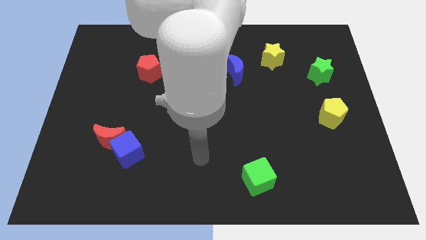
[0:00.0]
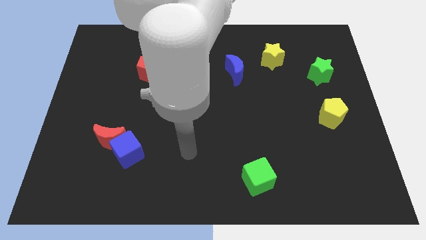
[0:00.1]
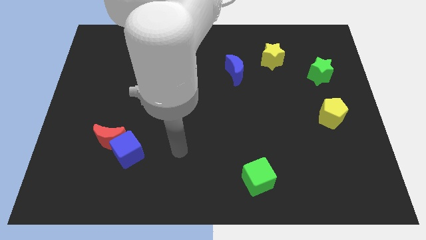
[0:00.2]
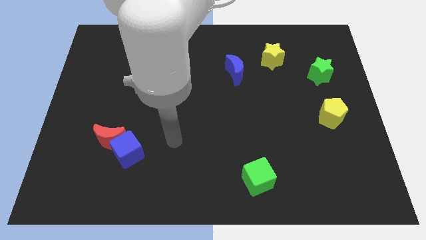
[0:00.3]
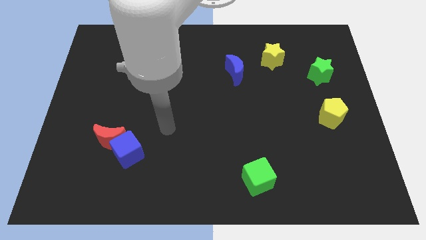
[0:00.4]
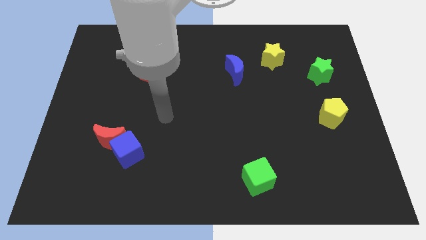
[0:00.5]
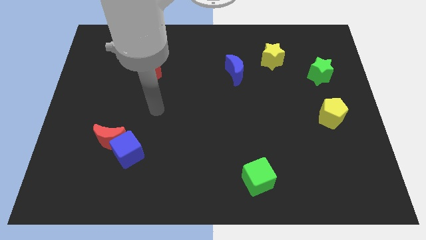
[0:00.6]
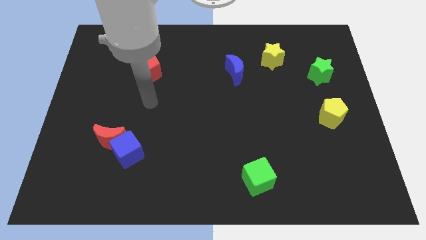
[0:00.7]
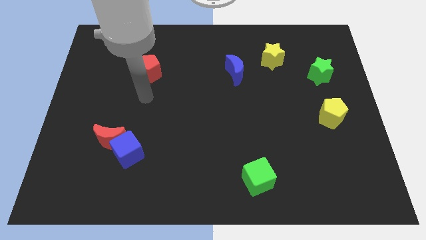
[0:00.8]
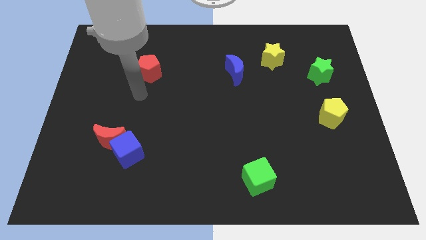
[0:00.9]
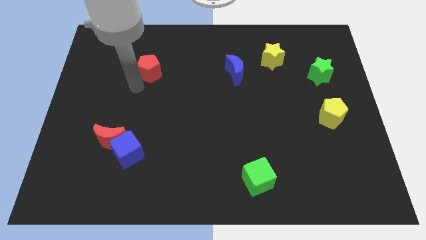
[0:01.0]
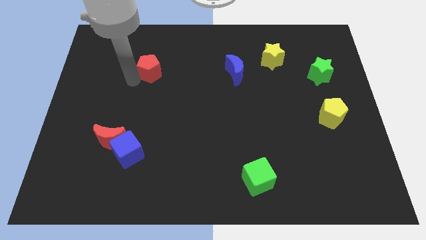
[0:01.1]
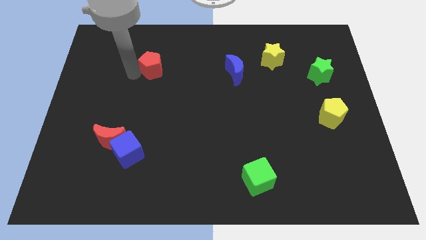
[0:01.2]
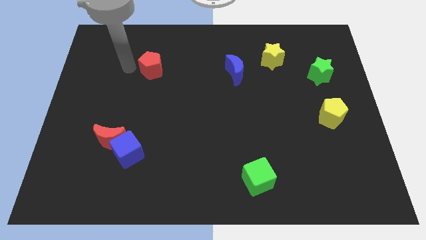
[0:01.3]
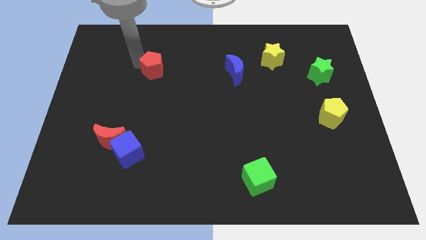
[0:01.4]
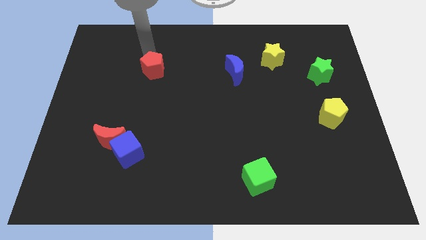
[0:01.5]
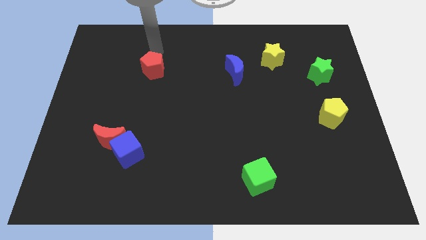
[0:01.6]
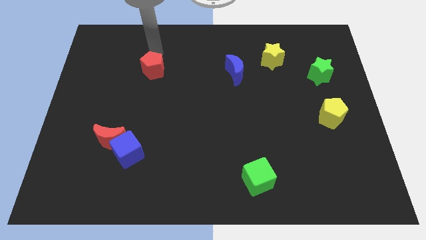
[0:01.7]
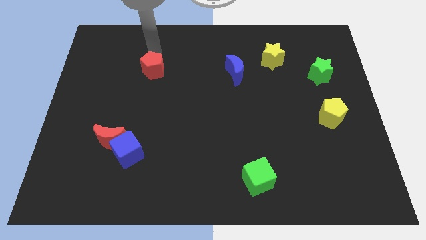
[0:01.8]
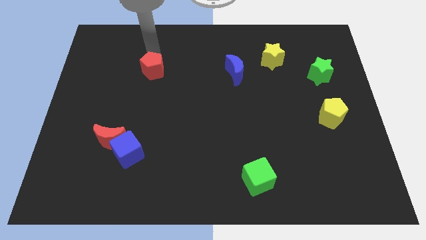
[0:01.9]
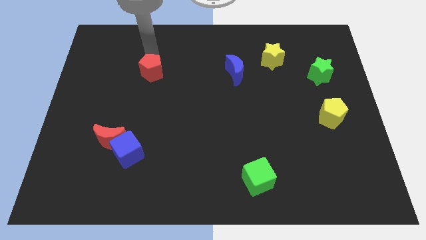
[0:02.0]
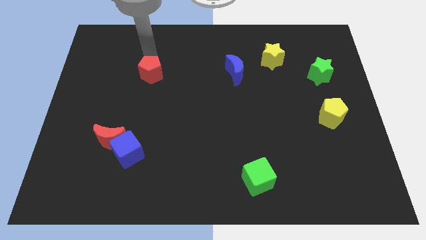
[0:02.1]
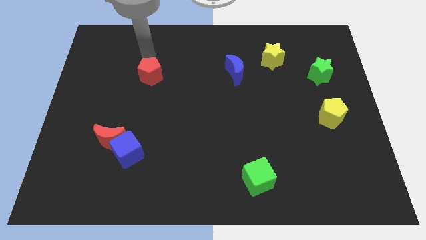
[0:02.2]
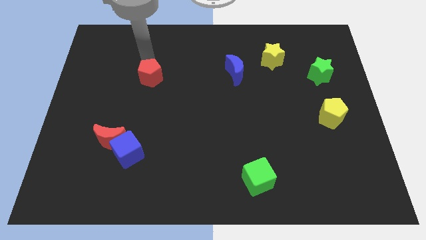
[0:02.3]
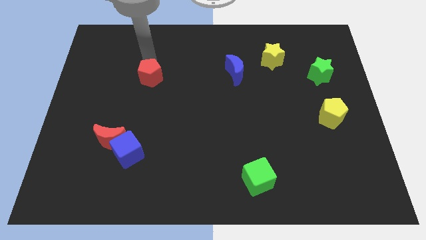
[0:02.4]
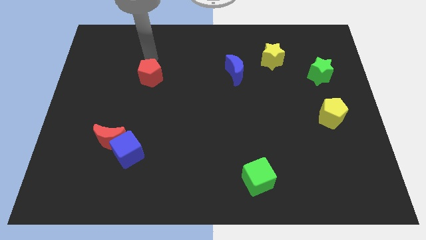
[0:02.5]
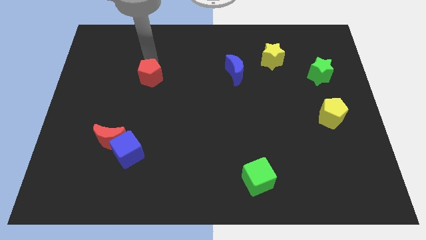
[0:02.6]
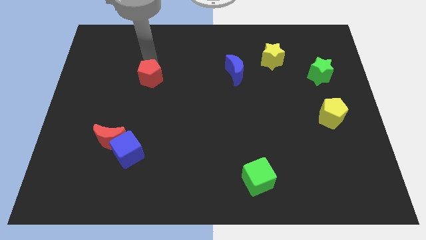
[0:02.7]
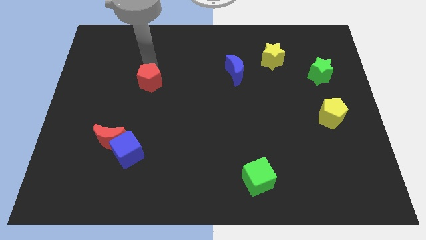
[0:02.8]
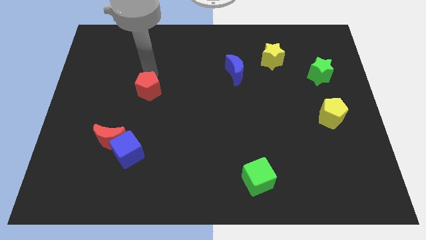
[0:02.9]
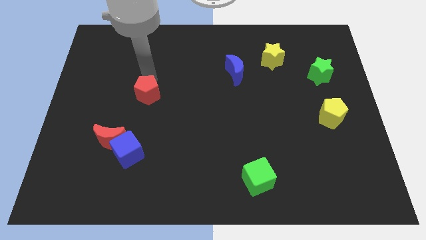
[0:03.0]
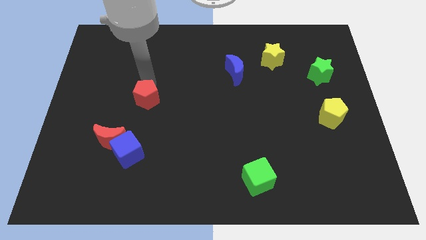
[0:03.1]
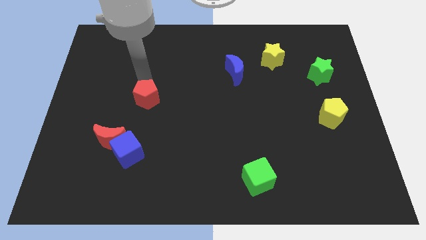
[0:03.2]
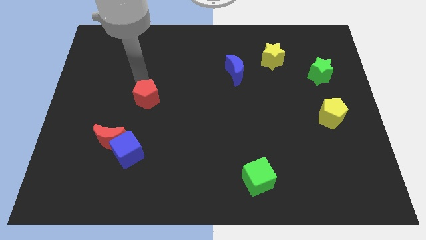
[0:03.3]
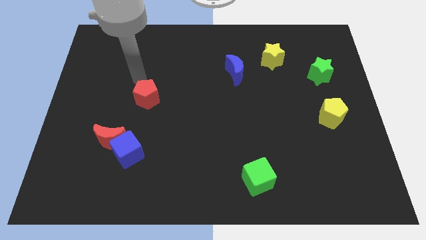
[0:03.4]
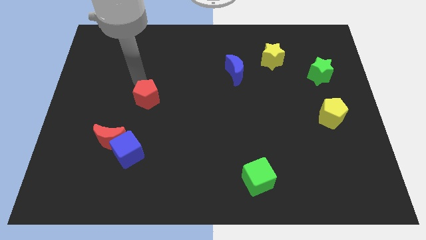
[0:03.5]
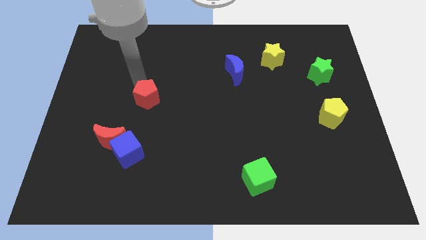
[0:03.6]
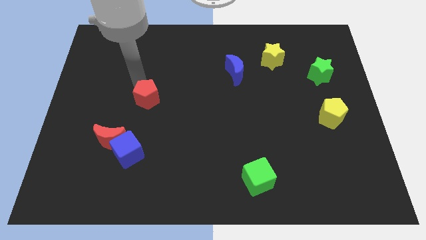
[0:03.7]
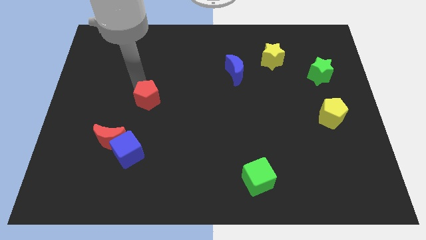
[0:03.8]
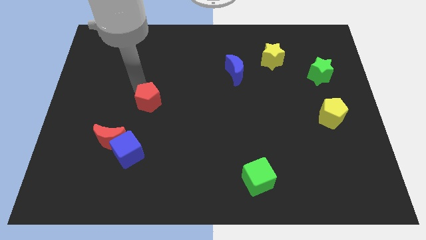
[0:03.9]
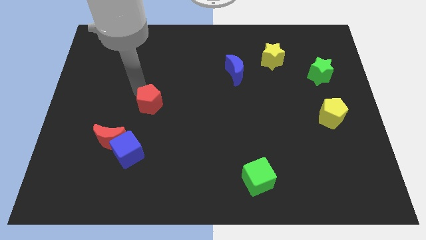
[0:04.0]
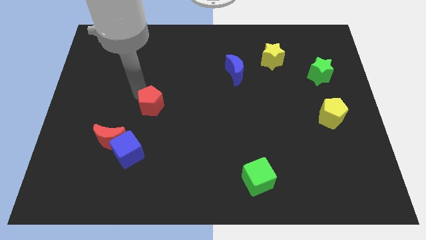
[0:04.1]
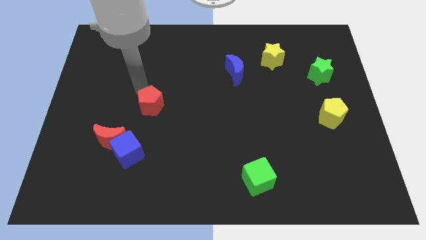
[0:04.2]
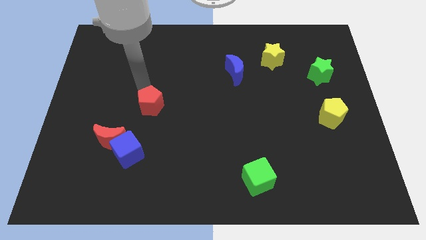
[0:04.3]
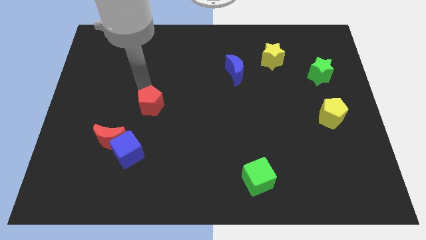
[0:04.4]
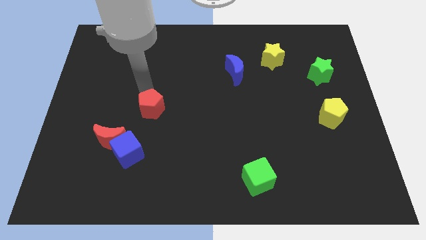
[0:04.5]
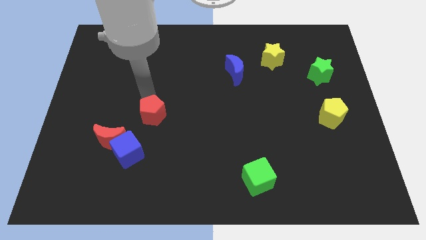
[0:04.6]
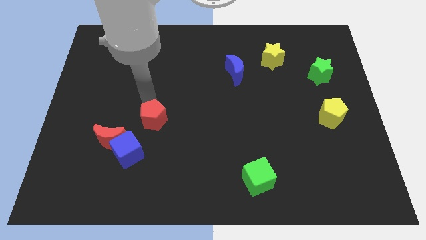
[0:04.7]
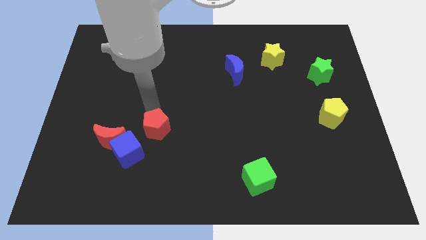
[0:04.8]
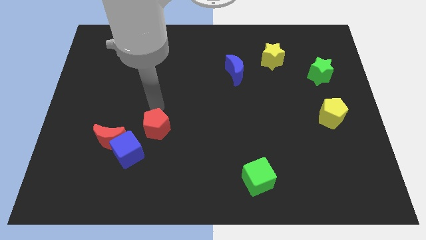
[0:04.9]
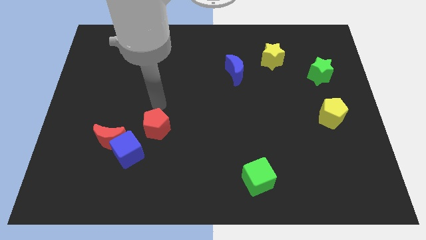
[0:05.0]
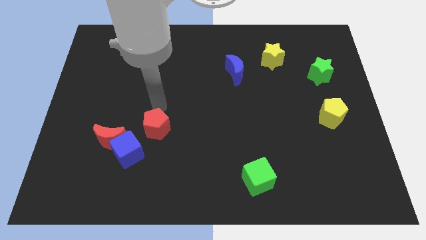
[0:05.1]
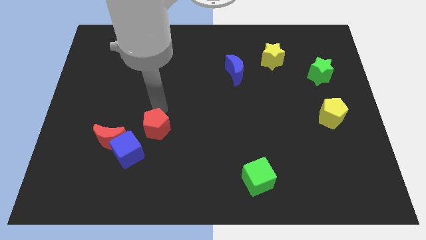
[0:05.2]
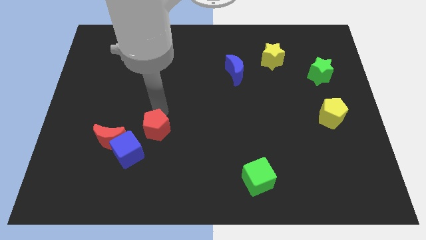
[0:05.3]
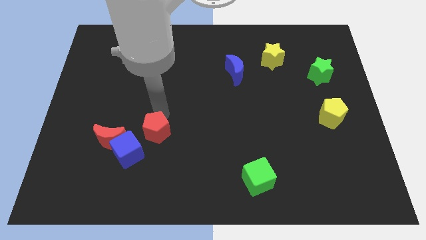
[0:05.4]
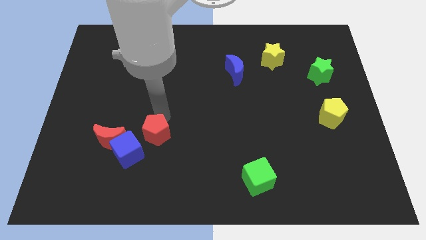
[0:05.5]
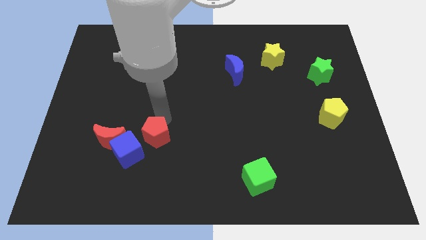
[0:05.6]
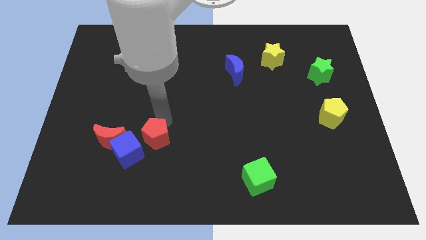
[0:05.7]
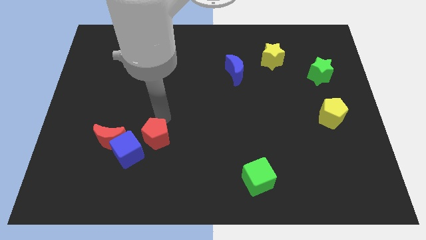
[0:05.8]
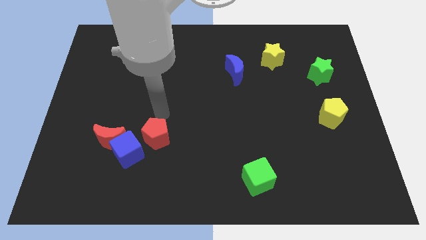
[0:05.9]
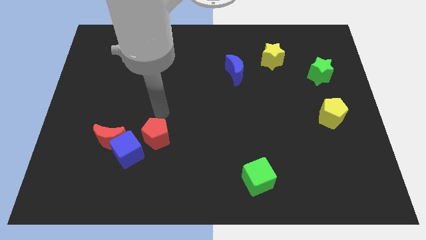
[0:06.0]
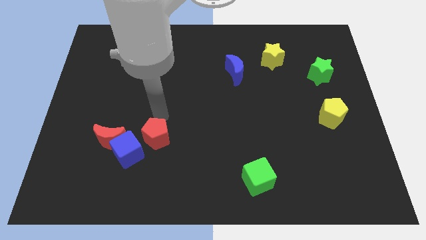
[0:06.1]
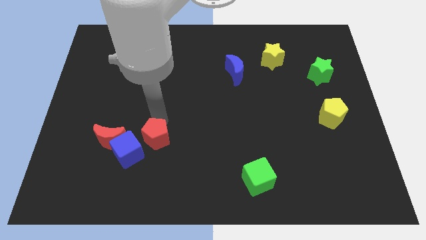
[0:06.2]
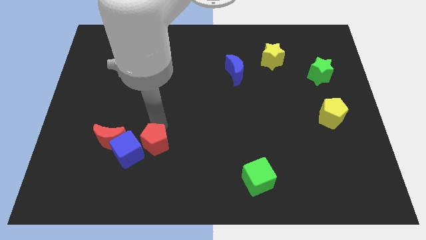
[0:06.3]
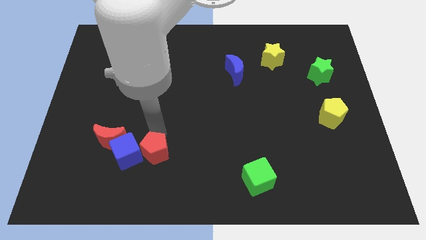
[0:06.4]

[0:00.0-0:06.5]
push the red pentagon to the bottom right of the blue cube
